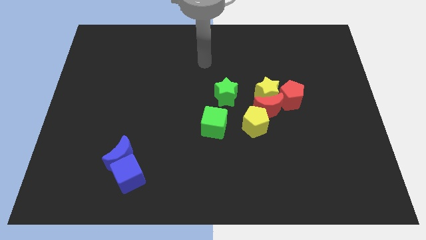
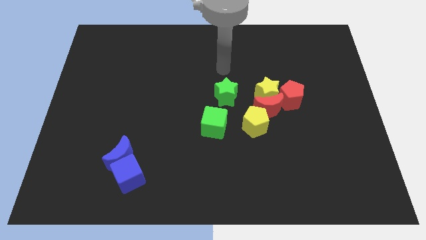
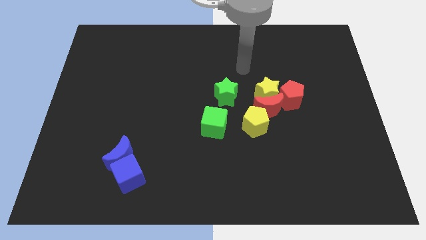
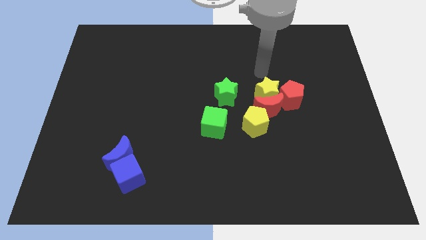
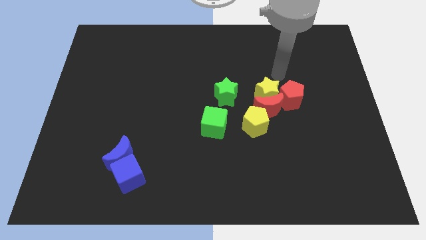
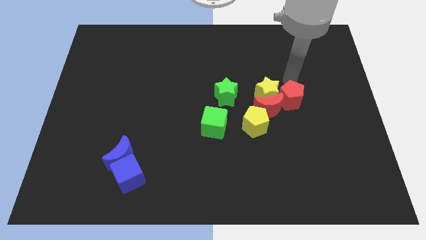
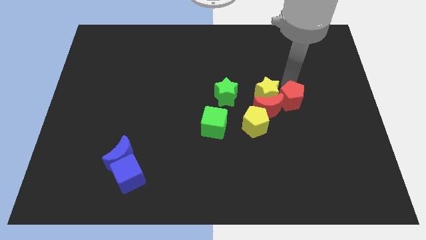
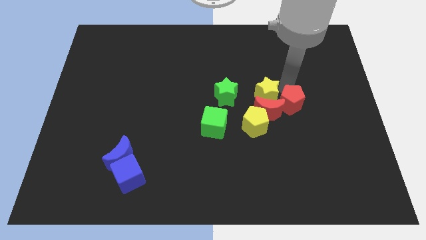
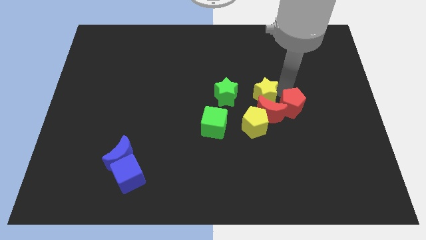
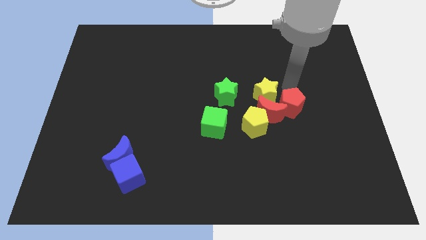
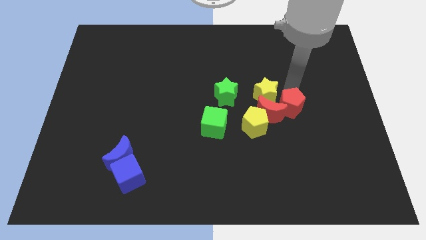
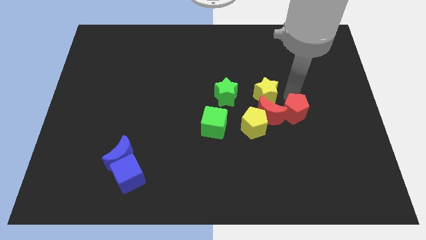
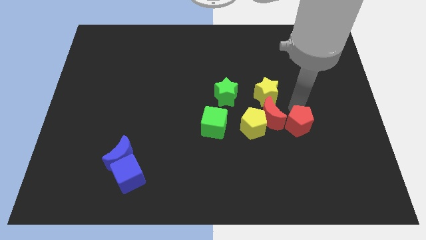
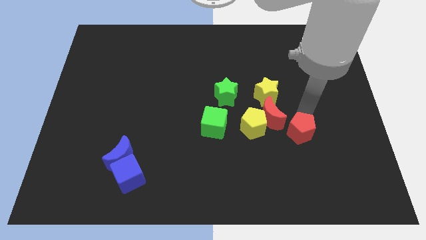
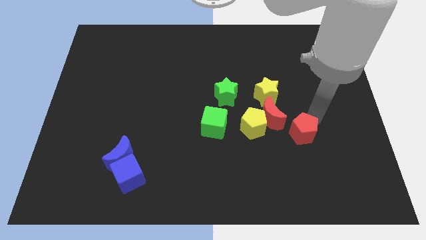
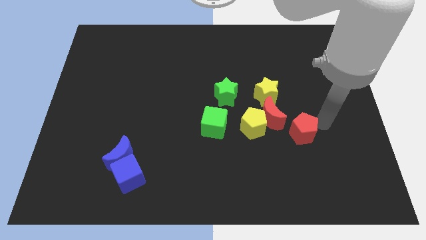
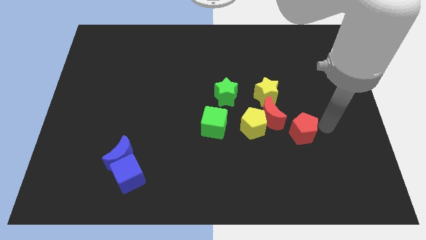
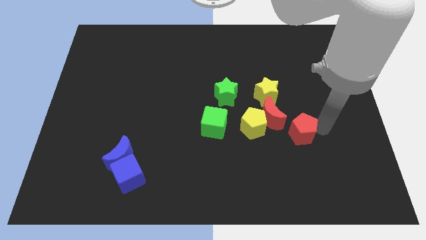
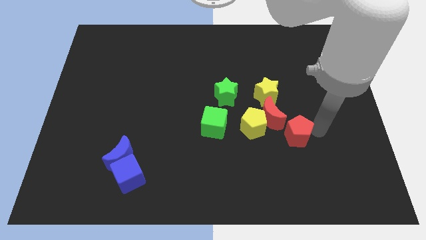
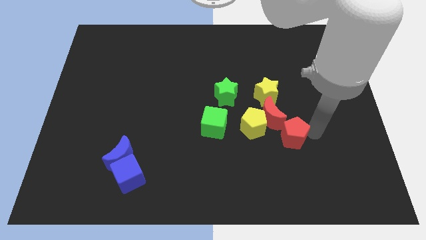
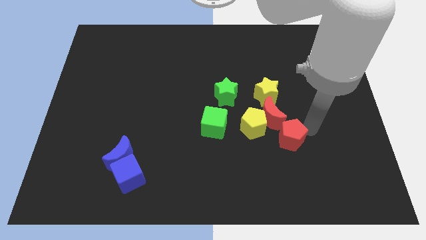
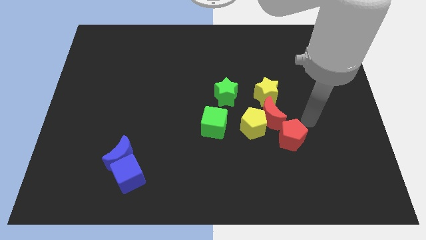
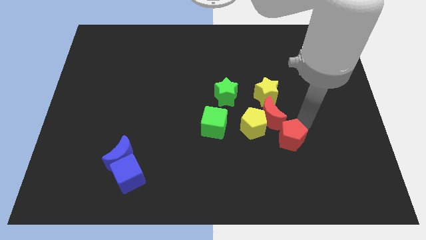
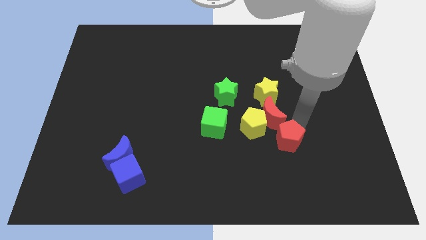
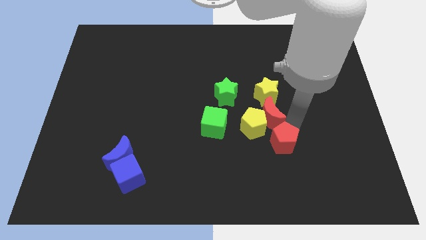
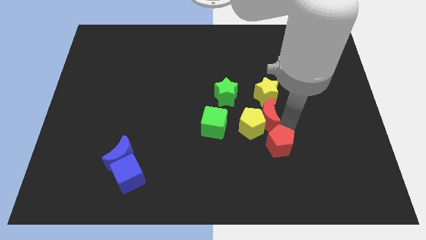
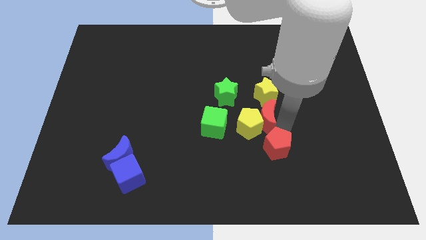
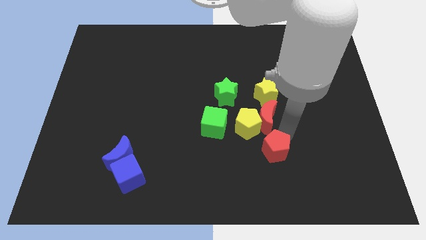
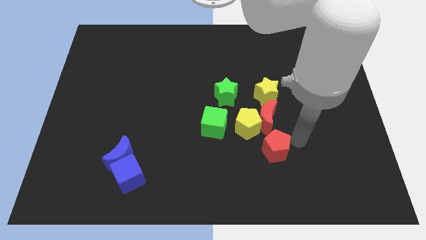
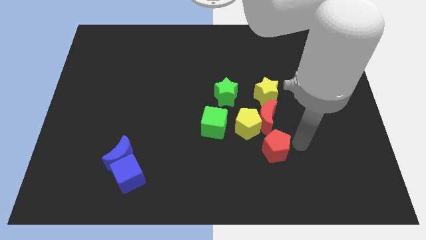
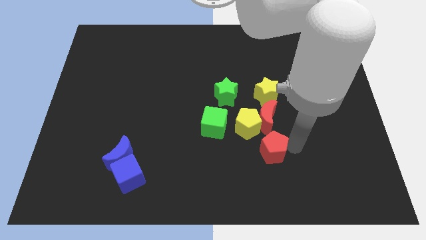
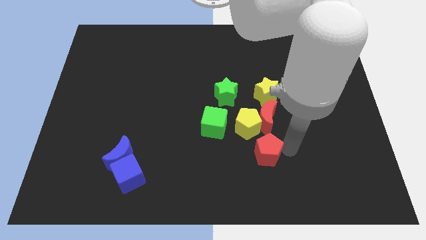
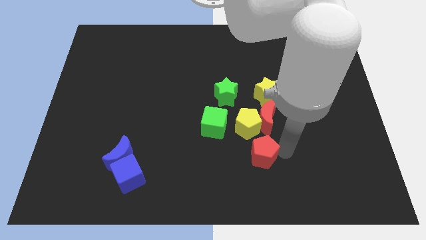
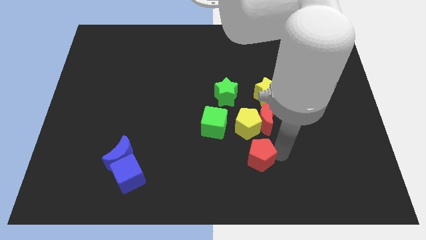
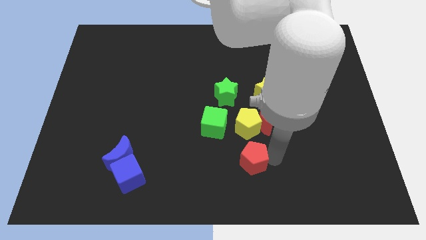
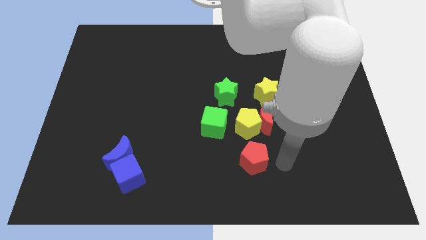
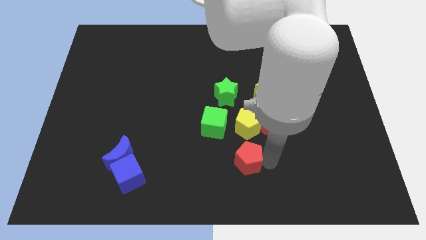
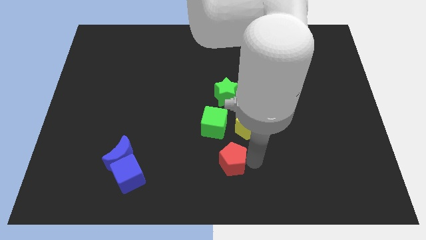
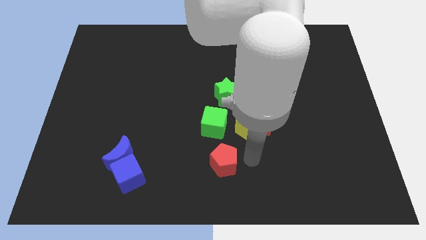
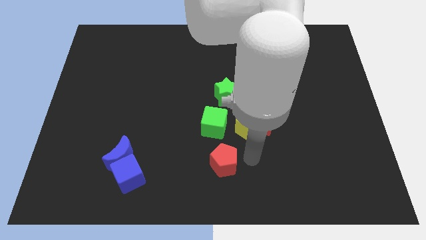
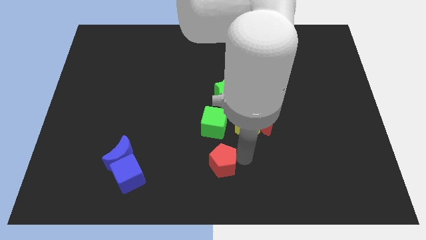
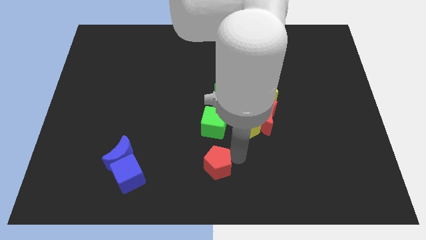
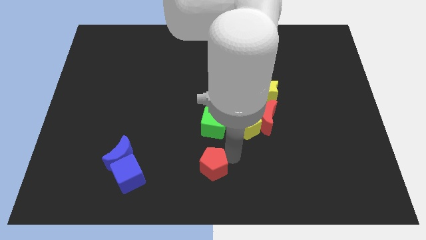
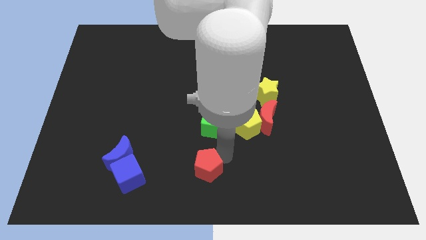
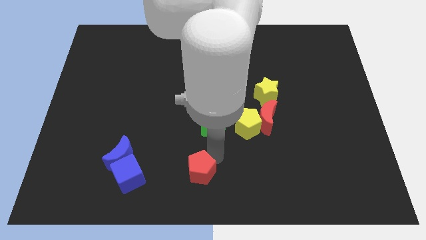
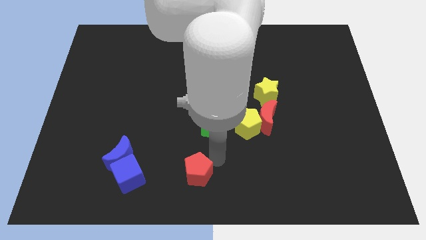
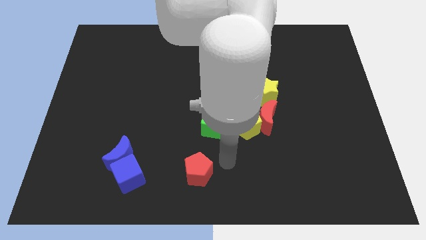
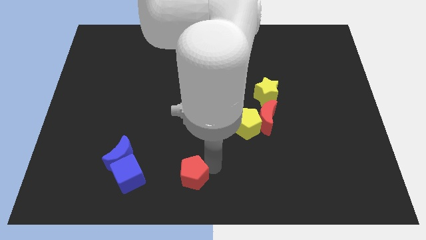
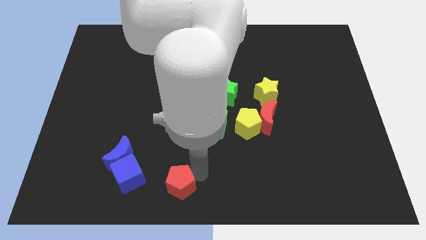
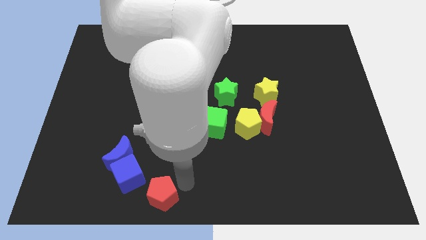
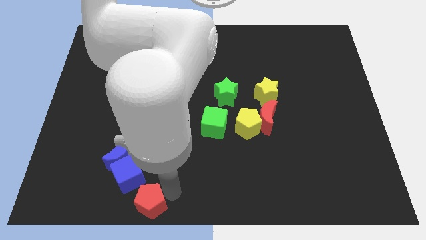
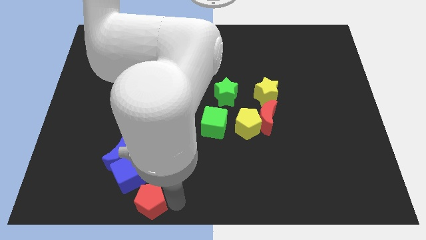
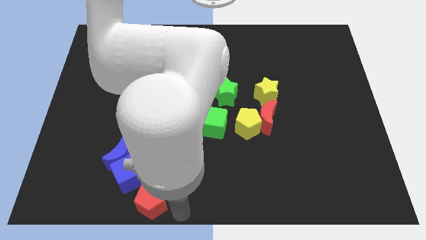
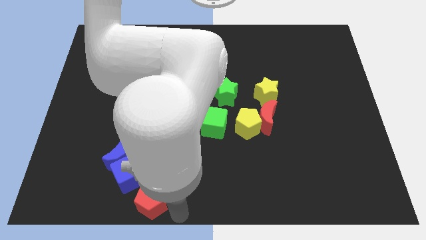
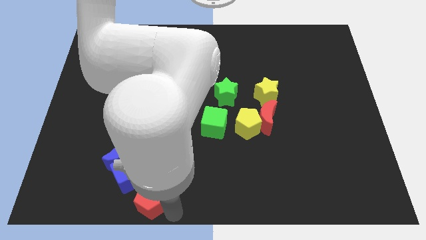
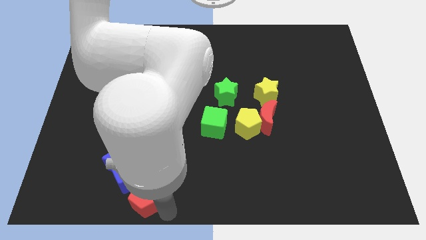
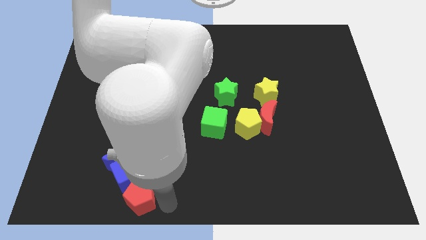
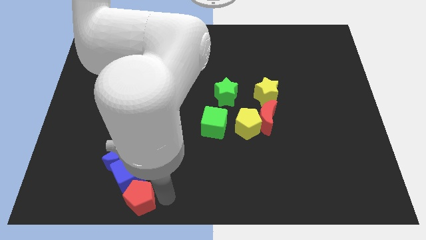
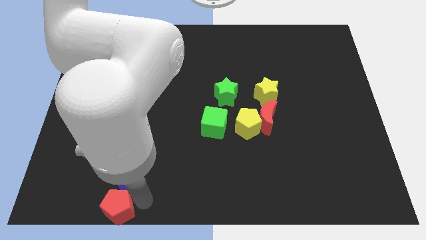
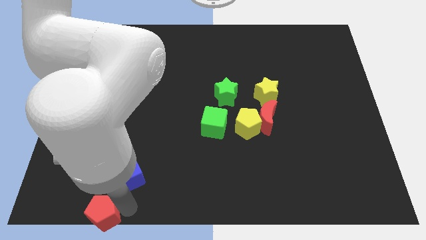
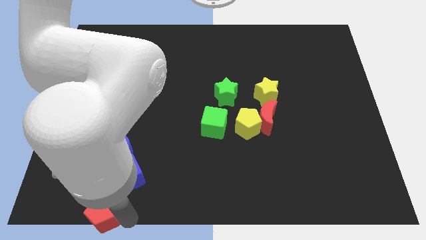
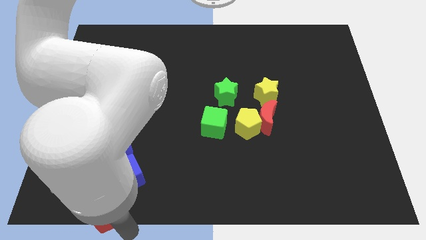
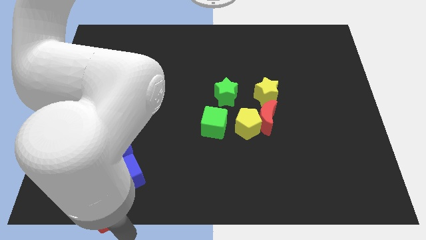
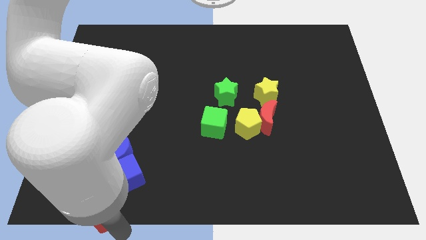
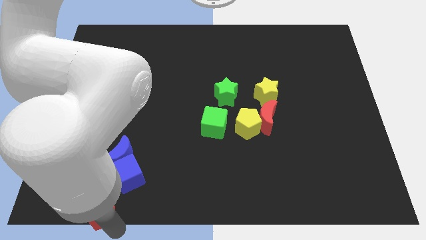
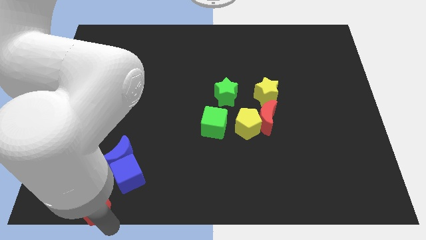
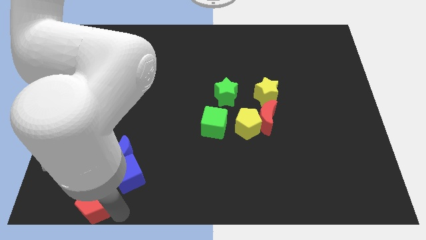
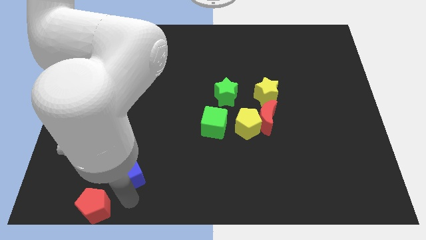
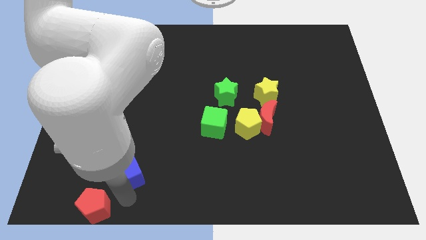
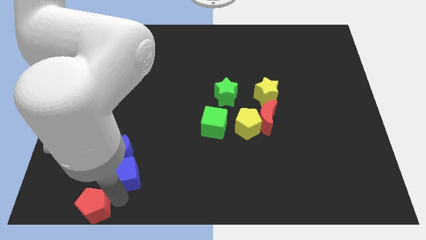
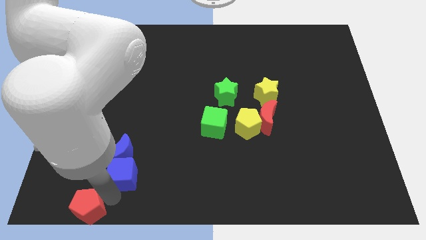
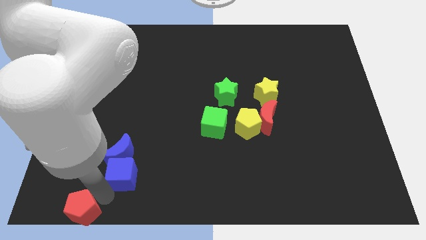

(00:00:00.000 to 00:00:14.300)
put the red pentagon to the lower left corner
